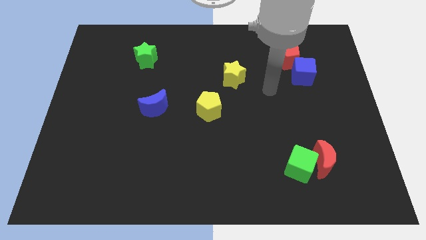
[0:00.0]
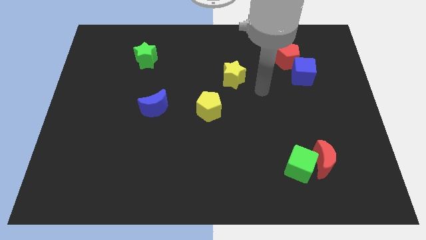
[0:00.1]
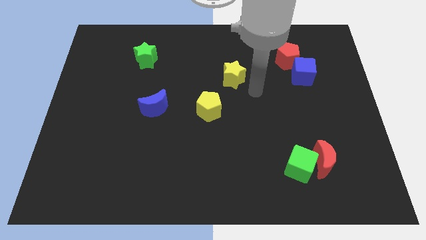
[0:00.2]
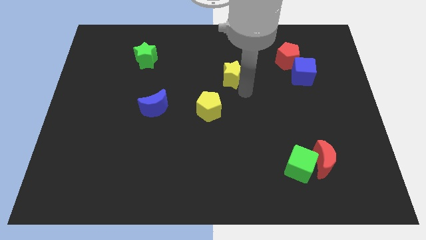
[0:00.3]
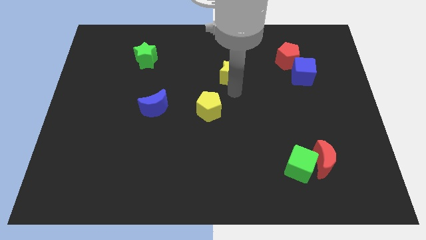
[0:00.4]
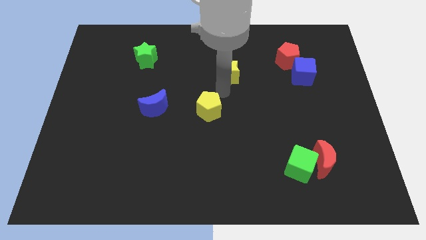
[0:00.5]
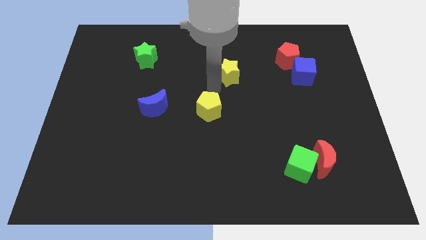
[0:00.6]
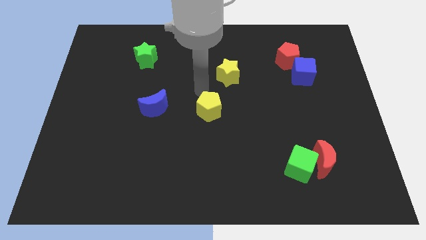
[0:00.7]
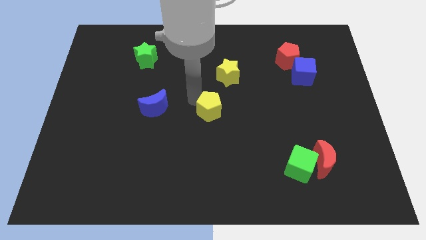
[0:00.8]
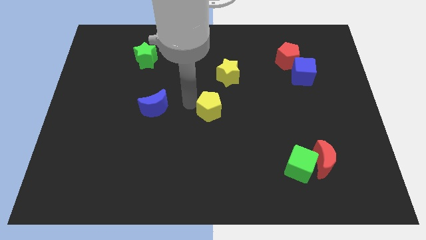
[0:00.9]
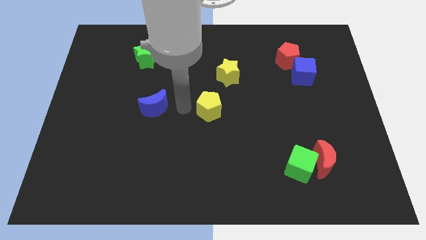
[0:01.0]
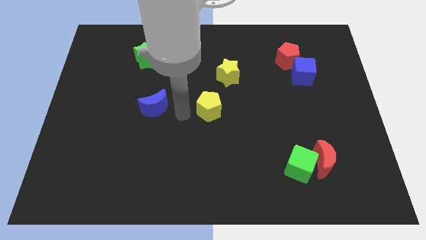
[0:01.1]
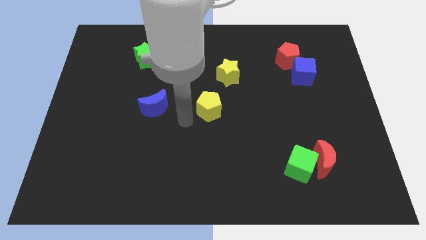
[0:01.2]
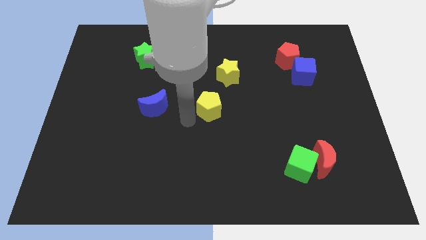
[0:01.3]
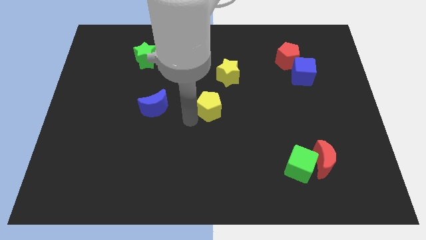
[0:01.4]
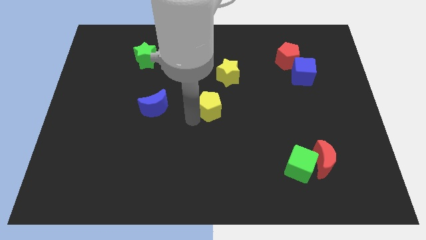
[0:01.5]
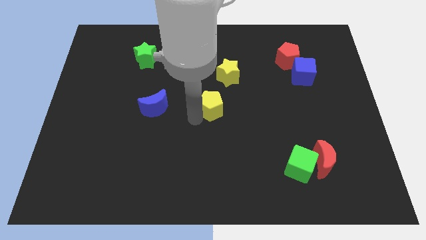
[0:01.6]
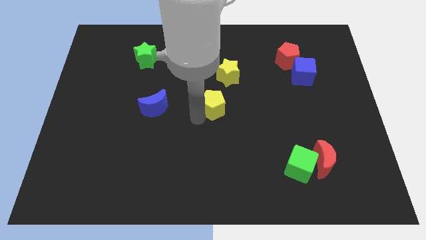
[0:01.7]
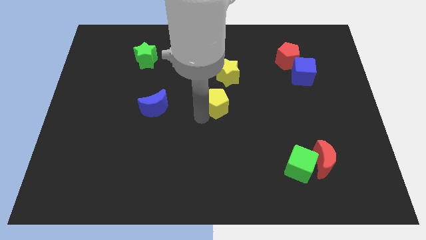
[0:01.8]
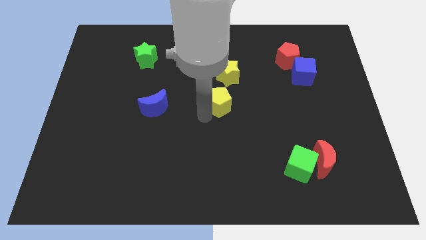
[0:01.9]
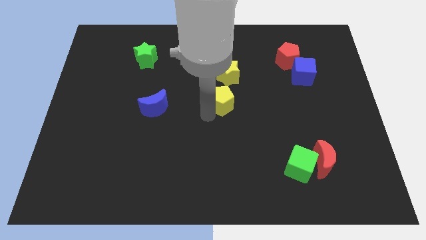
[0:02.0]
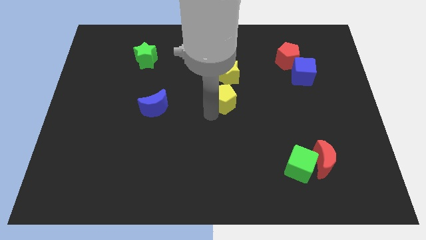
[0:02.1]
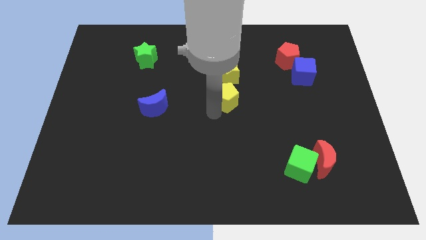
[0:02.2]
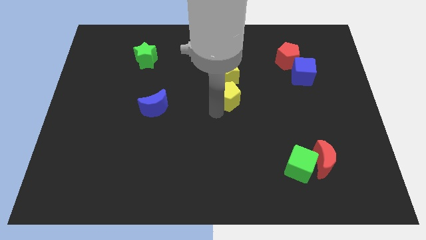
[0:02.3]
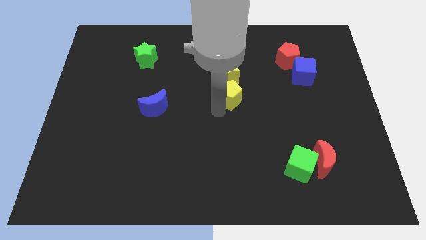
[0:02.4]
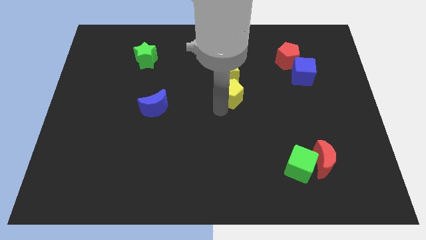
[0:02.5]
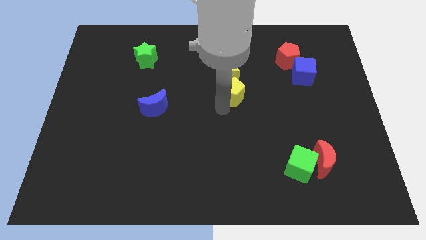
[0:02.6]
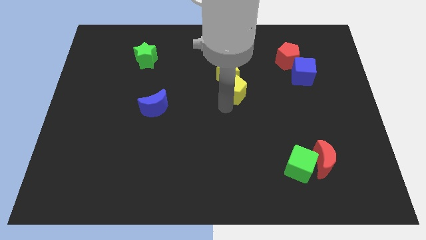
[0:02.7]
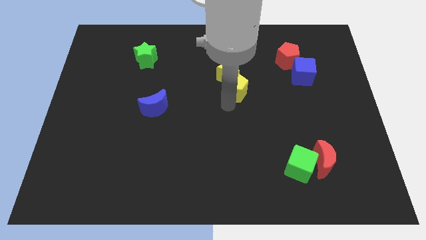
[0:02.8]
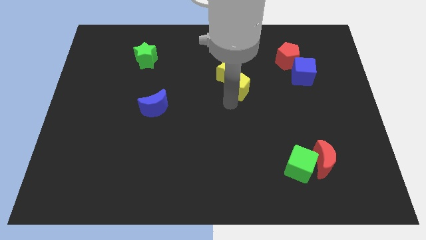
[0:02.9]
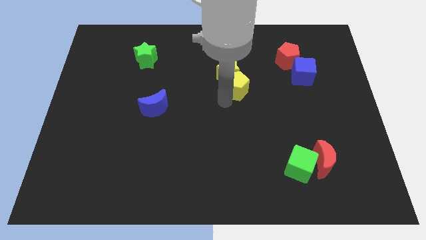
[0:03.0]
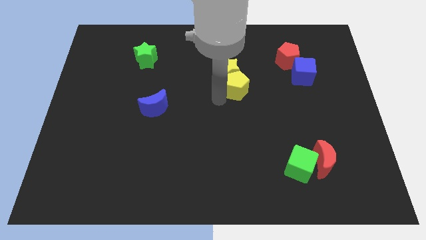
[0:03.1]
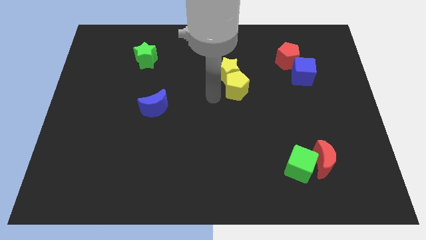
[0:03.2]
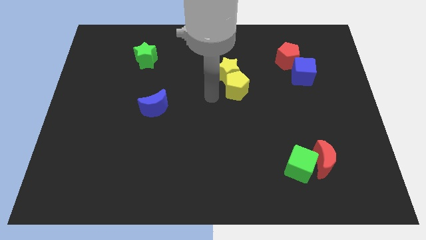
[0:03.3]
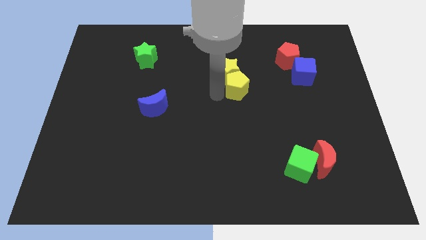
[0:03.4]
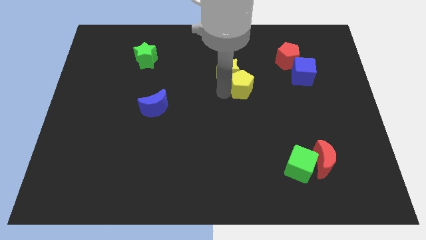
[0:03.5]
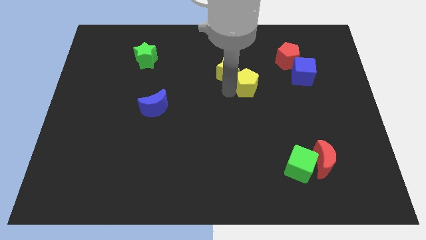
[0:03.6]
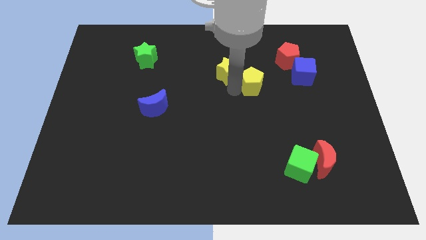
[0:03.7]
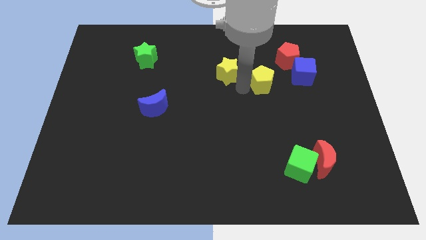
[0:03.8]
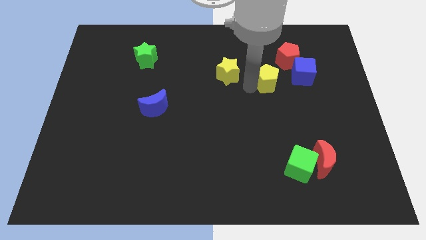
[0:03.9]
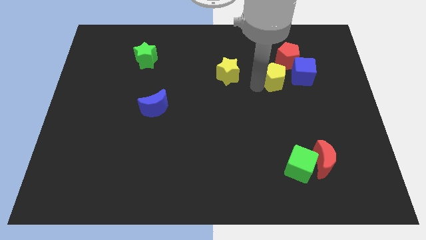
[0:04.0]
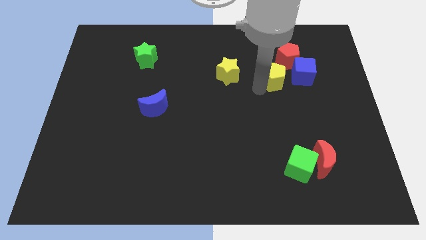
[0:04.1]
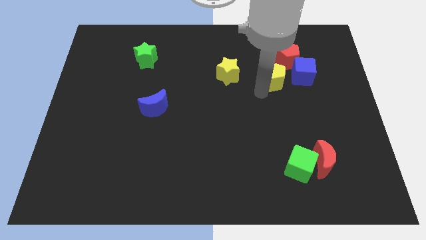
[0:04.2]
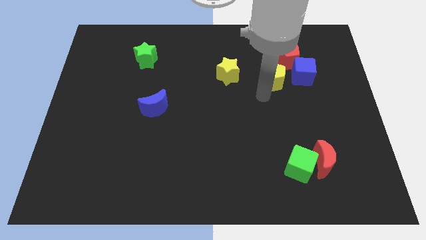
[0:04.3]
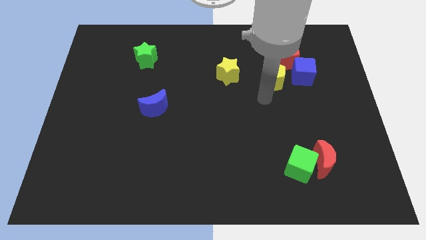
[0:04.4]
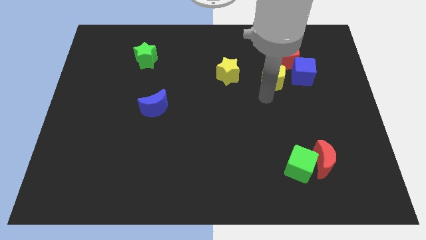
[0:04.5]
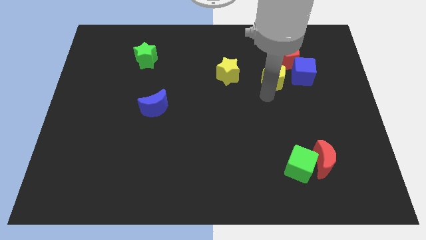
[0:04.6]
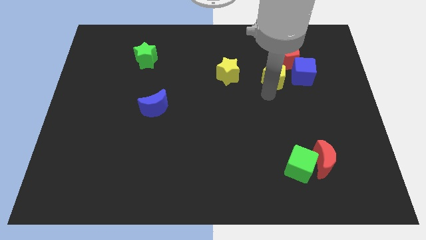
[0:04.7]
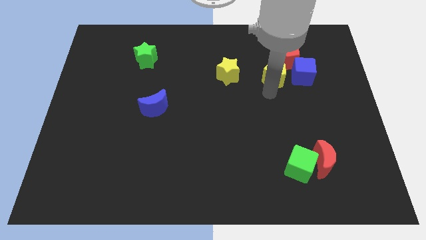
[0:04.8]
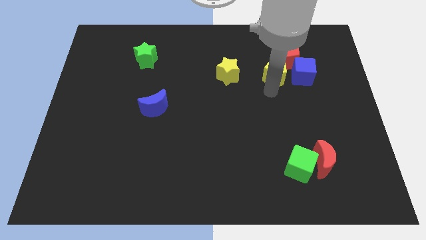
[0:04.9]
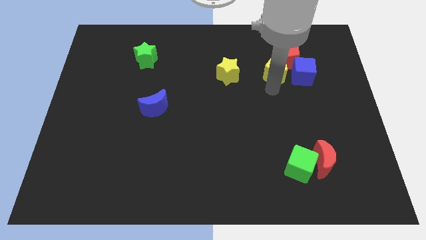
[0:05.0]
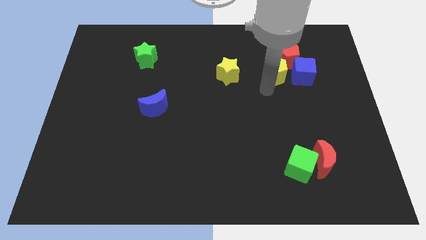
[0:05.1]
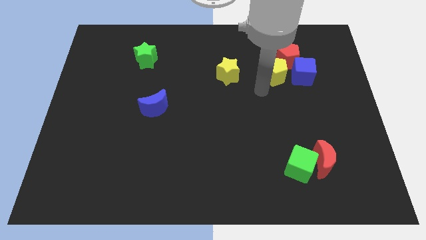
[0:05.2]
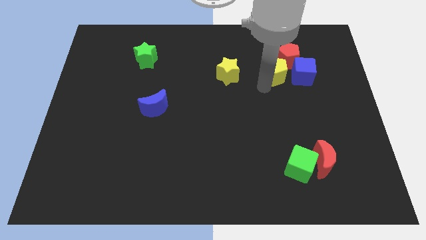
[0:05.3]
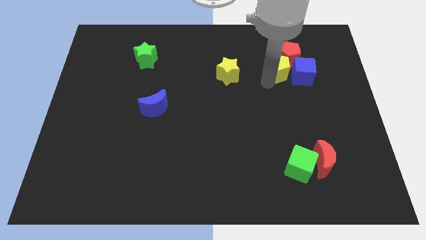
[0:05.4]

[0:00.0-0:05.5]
slide the yellow pentagon close to the red pentagon

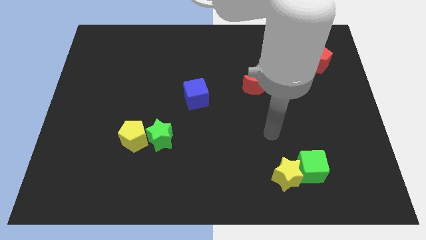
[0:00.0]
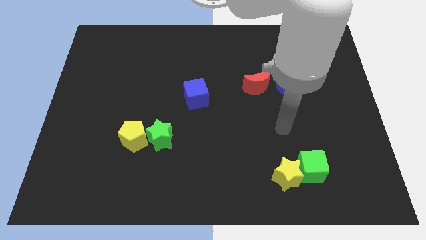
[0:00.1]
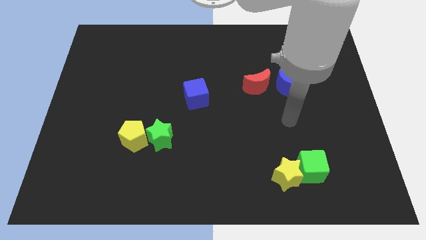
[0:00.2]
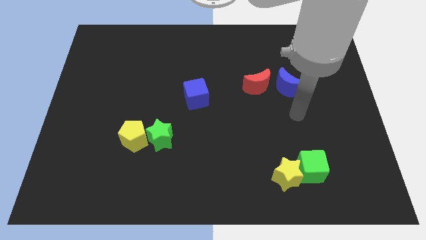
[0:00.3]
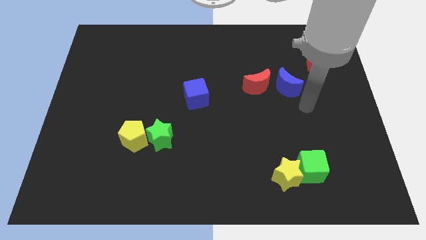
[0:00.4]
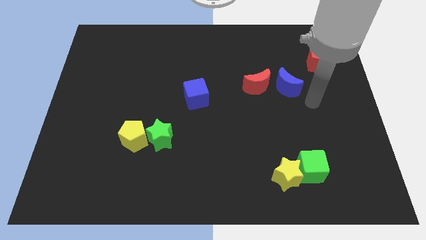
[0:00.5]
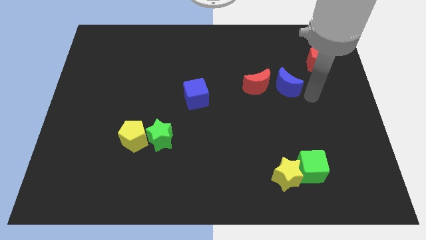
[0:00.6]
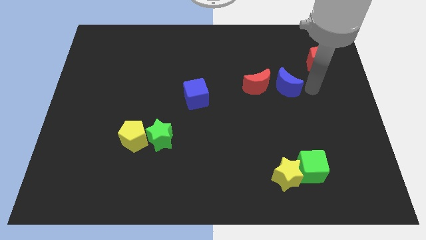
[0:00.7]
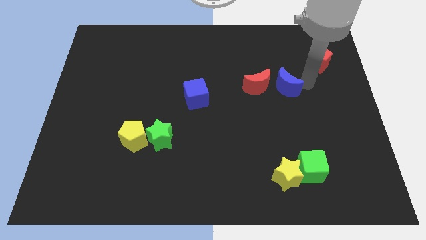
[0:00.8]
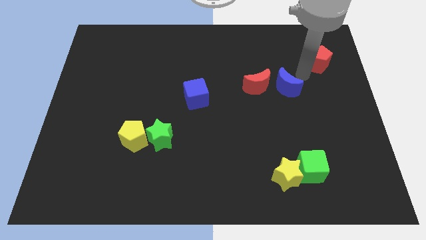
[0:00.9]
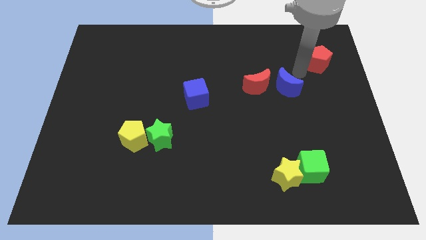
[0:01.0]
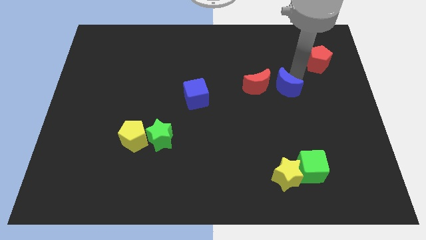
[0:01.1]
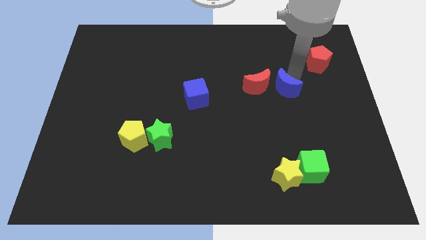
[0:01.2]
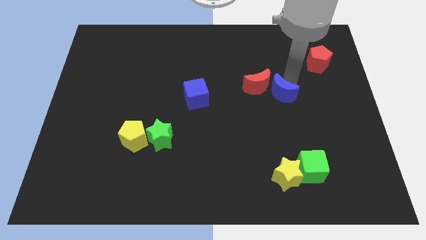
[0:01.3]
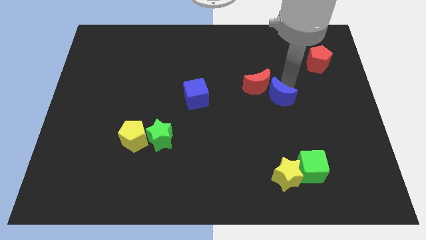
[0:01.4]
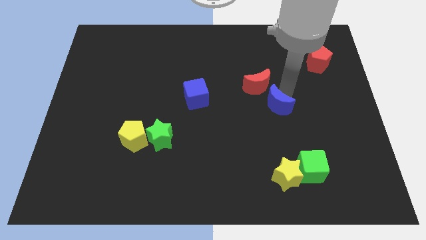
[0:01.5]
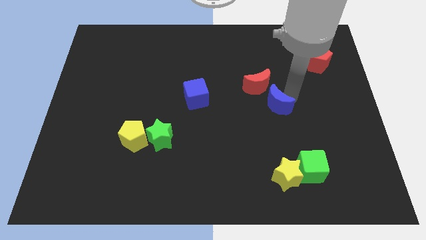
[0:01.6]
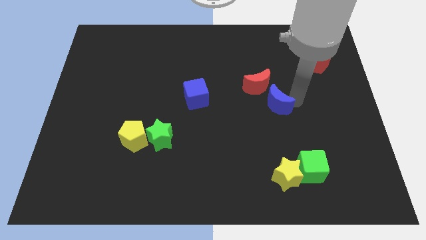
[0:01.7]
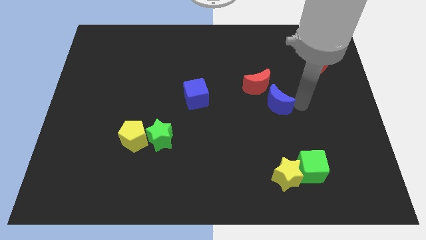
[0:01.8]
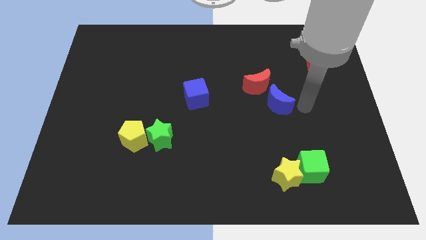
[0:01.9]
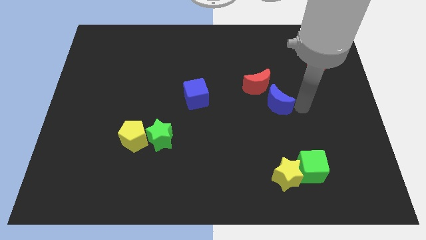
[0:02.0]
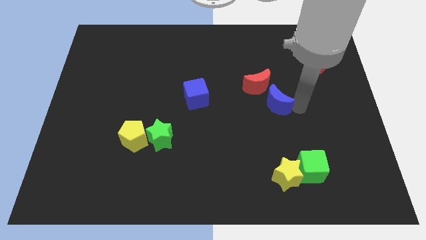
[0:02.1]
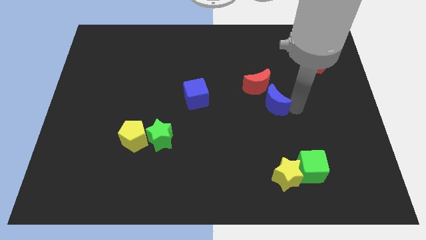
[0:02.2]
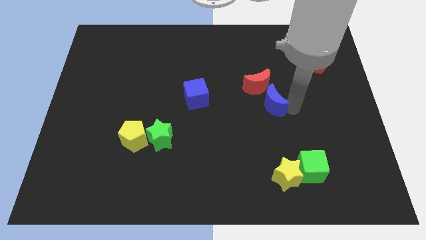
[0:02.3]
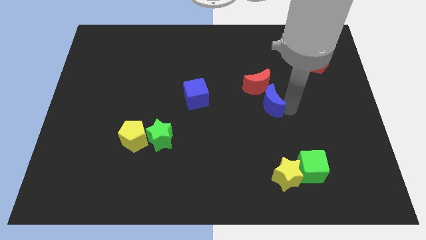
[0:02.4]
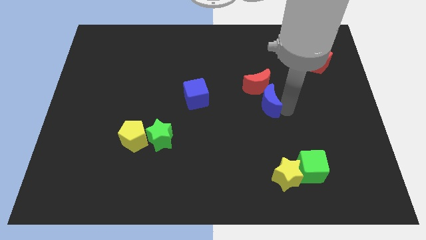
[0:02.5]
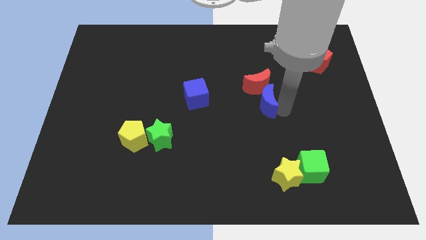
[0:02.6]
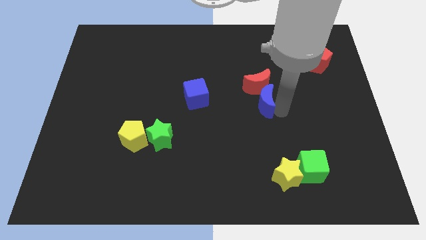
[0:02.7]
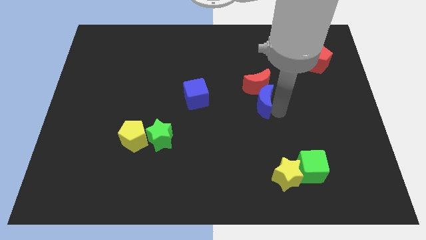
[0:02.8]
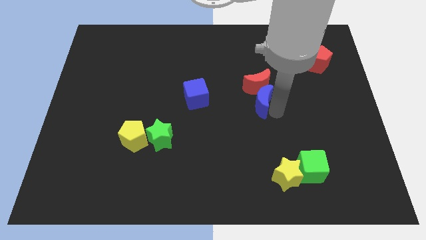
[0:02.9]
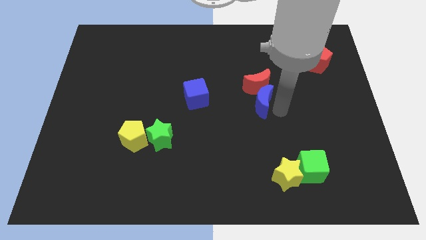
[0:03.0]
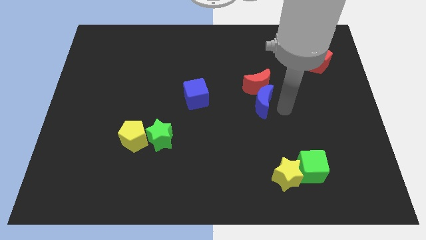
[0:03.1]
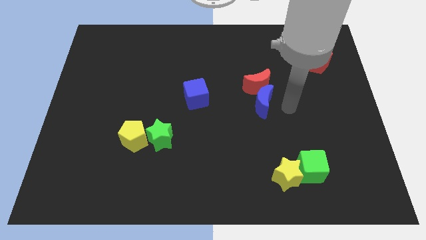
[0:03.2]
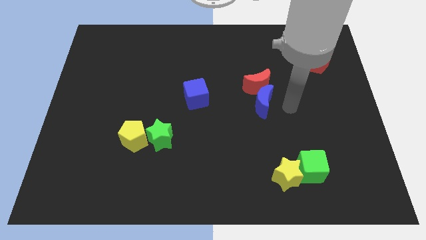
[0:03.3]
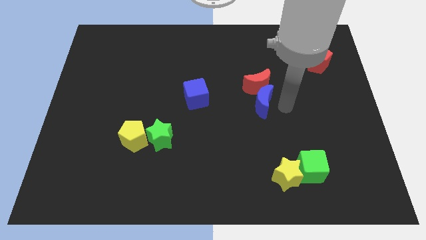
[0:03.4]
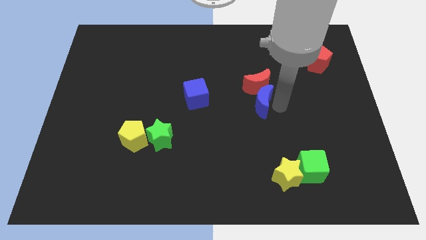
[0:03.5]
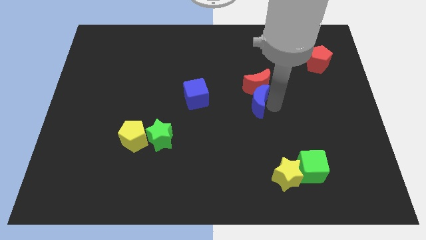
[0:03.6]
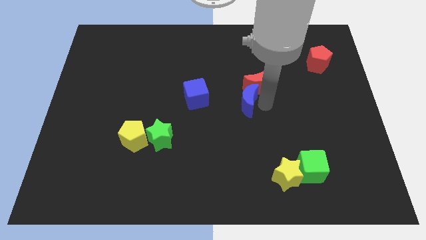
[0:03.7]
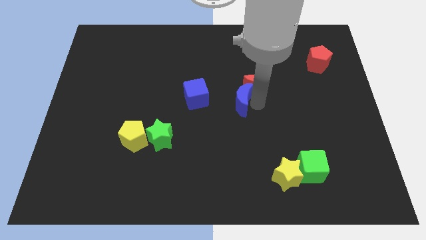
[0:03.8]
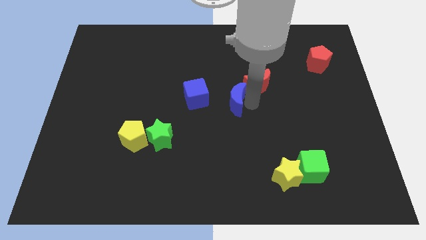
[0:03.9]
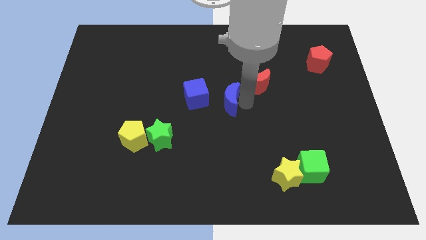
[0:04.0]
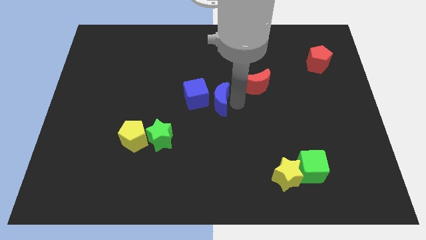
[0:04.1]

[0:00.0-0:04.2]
move the blue moon to the blue cube
